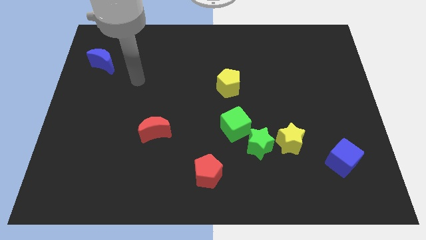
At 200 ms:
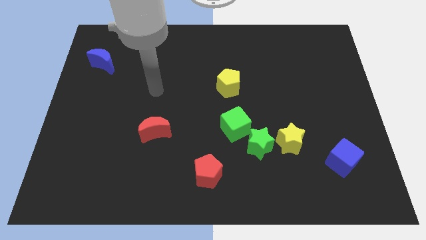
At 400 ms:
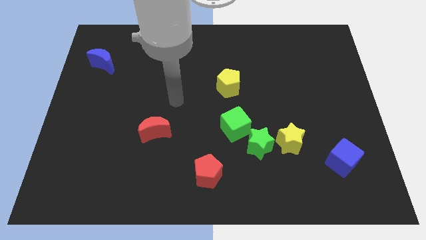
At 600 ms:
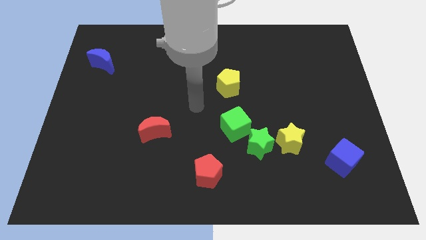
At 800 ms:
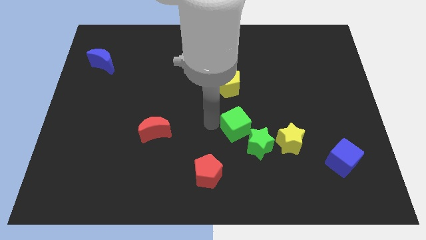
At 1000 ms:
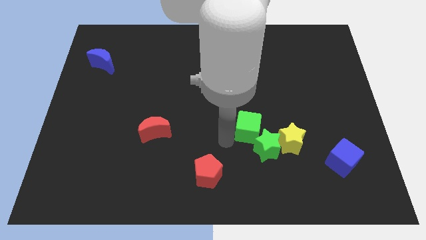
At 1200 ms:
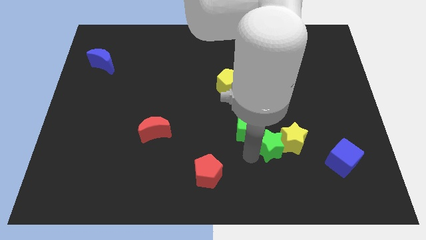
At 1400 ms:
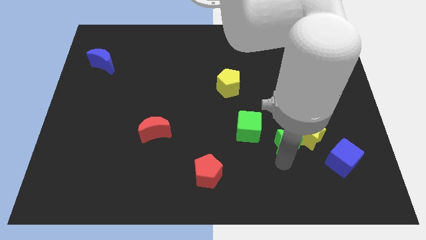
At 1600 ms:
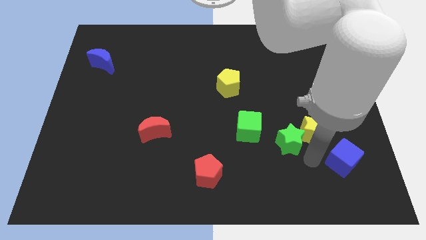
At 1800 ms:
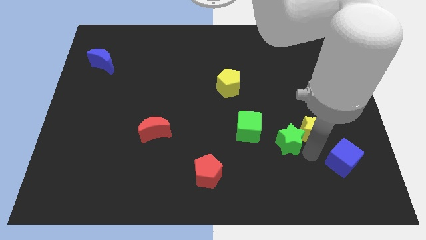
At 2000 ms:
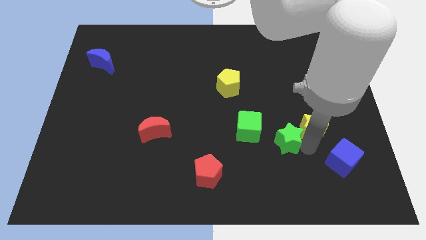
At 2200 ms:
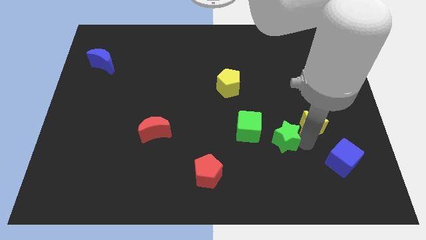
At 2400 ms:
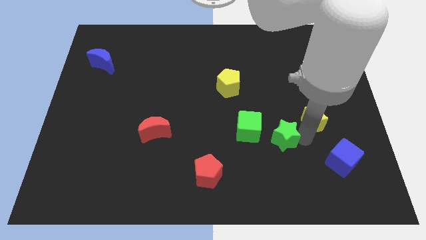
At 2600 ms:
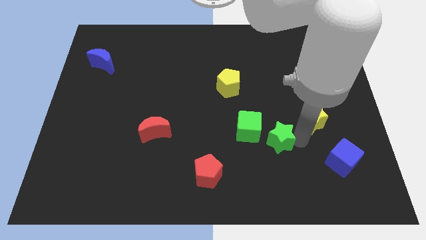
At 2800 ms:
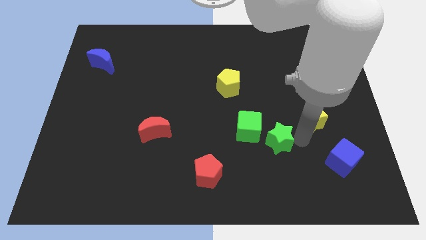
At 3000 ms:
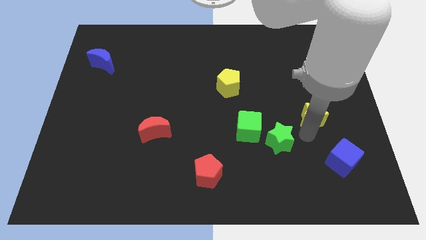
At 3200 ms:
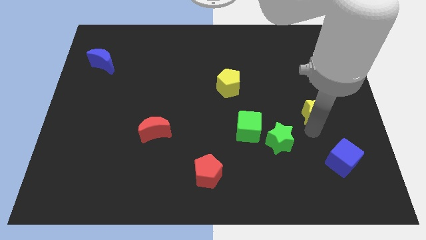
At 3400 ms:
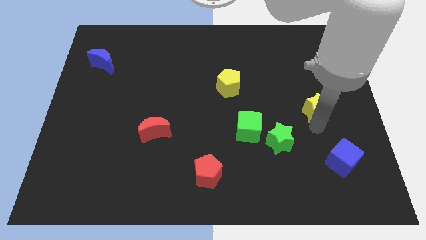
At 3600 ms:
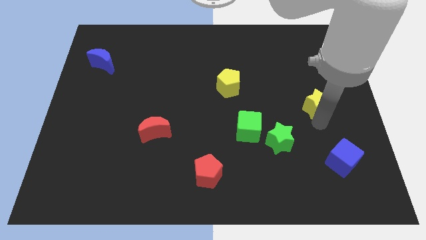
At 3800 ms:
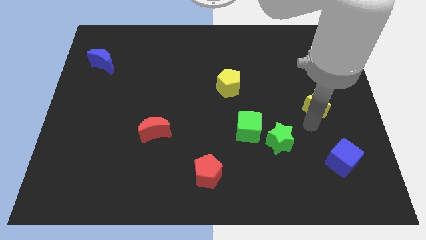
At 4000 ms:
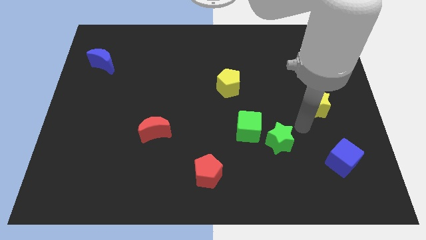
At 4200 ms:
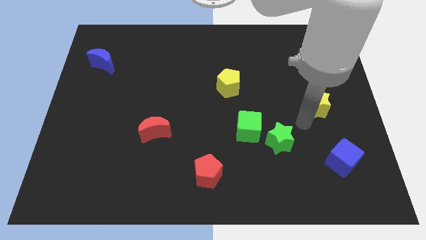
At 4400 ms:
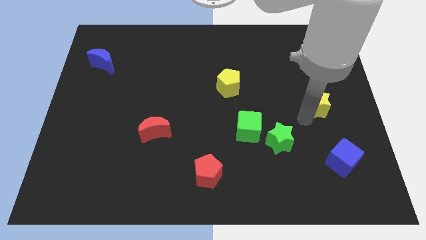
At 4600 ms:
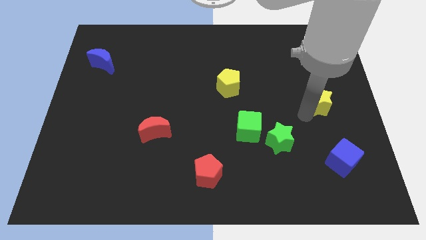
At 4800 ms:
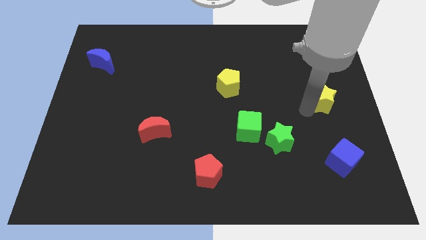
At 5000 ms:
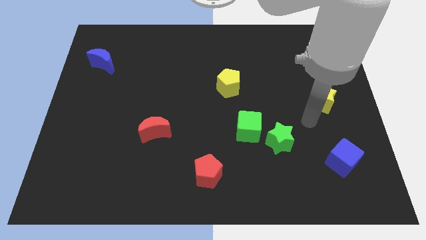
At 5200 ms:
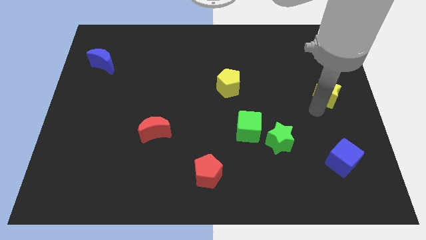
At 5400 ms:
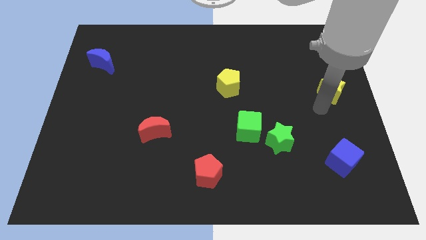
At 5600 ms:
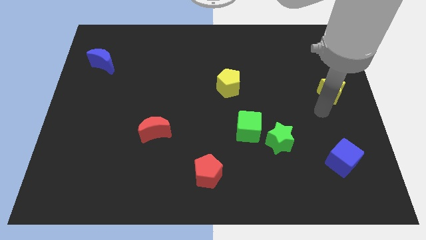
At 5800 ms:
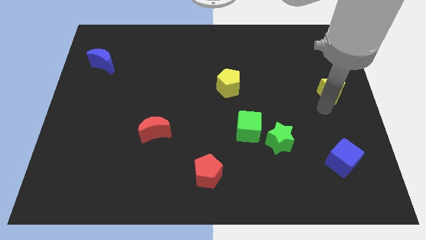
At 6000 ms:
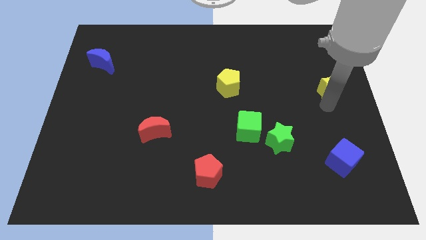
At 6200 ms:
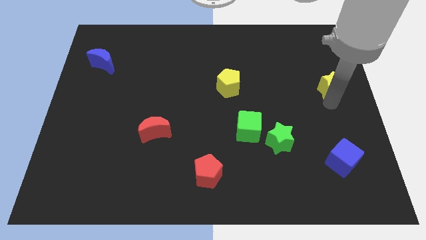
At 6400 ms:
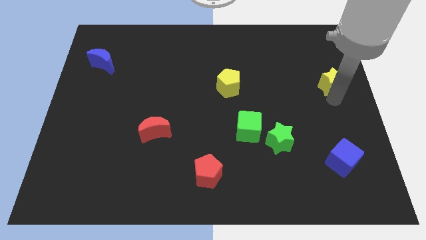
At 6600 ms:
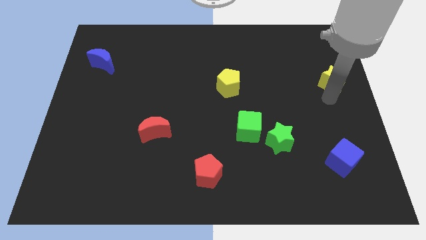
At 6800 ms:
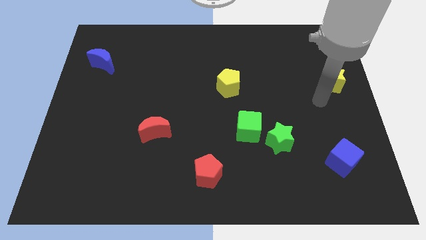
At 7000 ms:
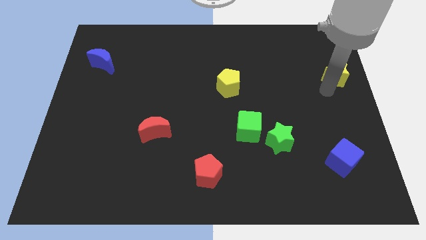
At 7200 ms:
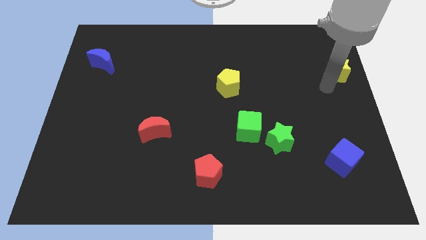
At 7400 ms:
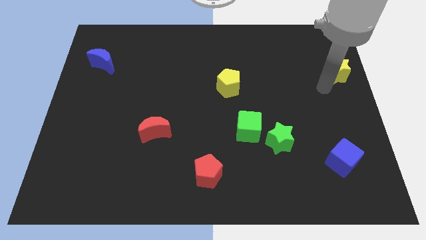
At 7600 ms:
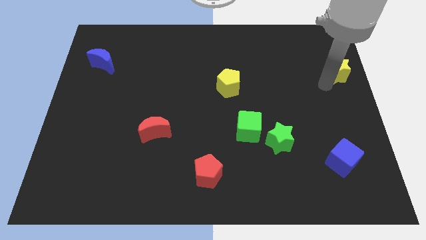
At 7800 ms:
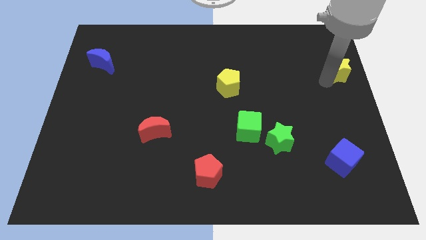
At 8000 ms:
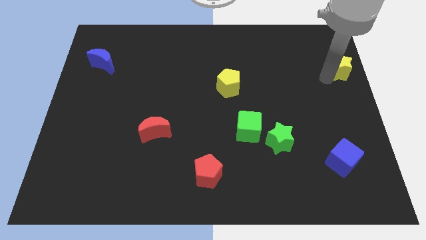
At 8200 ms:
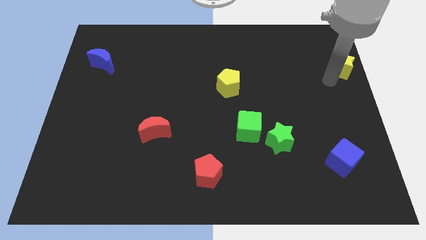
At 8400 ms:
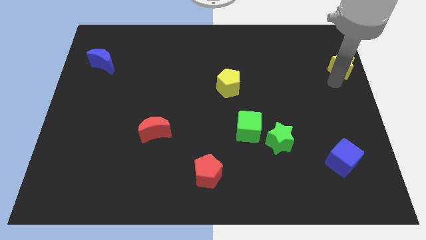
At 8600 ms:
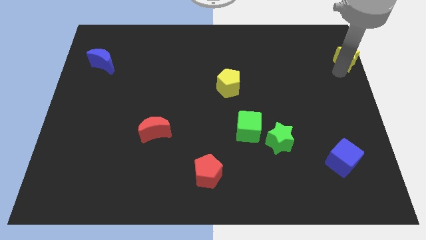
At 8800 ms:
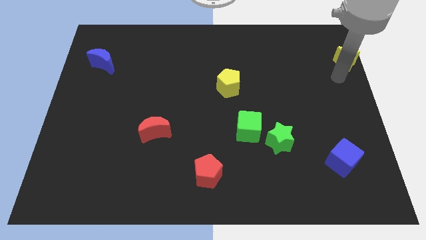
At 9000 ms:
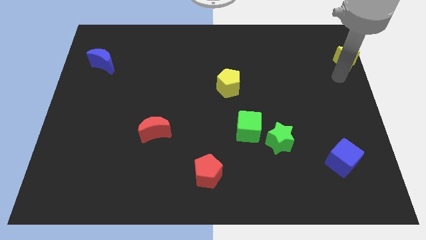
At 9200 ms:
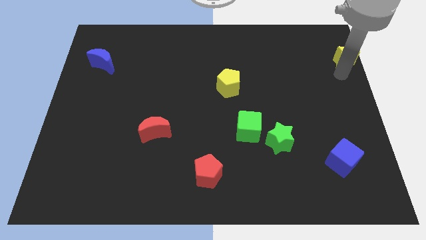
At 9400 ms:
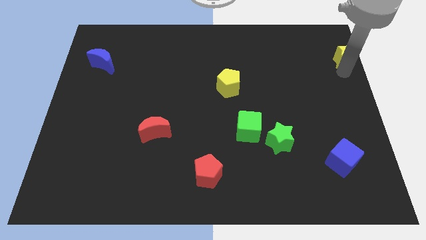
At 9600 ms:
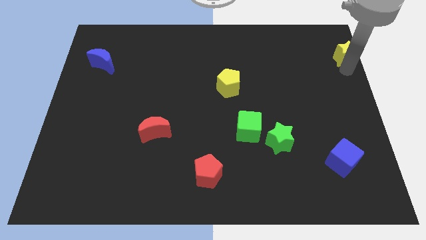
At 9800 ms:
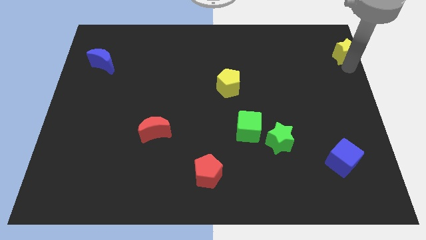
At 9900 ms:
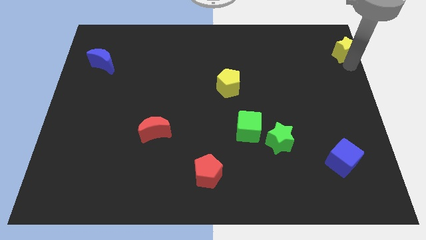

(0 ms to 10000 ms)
put the yellow star to the upper right corner

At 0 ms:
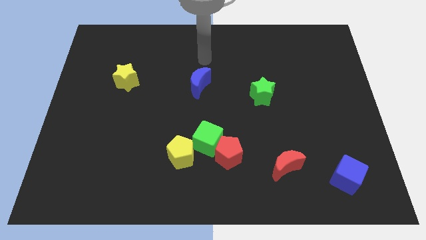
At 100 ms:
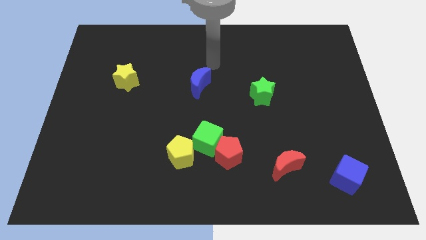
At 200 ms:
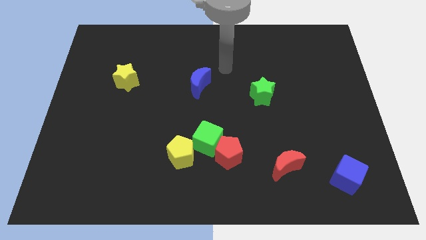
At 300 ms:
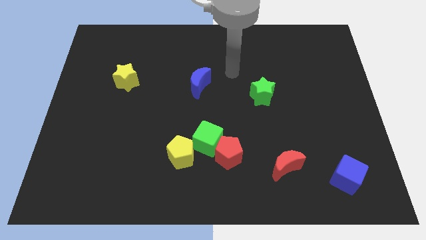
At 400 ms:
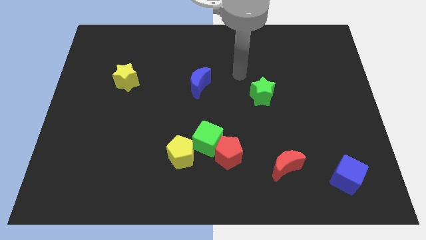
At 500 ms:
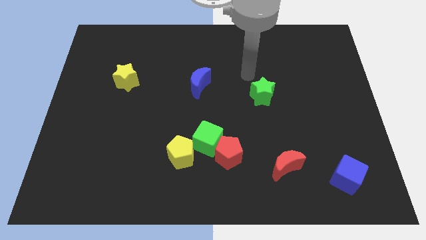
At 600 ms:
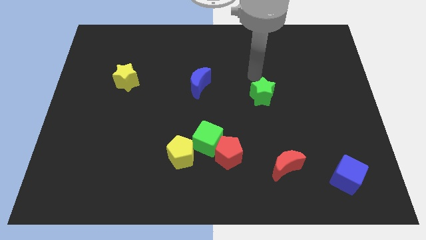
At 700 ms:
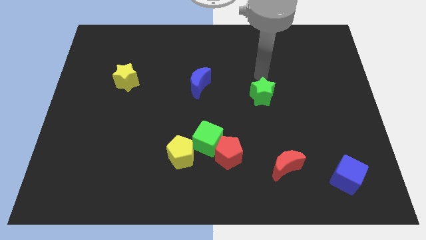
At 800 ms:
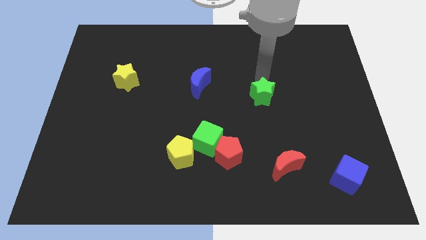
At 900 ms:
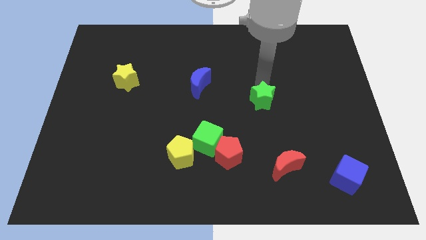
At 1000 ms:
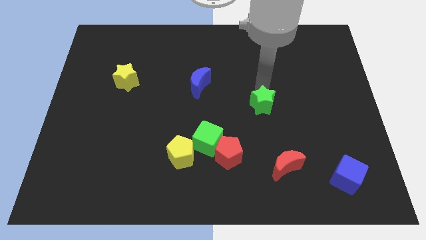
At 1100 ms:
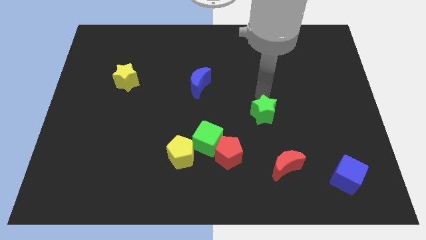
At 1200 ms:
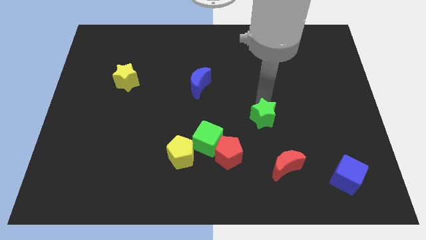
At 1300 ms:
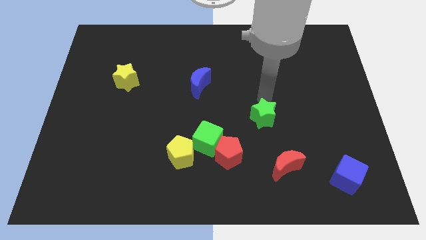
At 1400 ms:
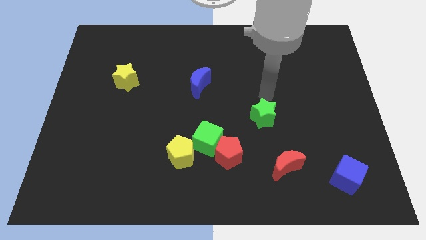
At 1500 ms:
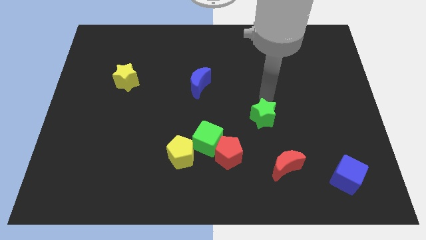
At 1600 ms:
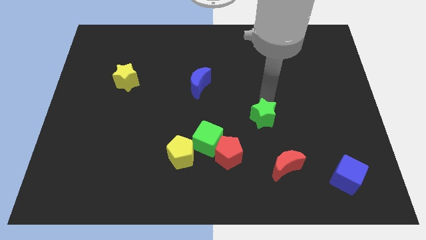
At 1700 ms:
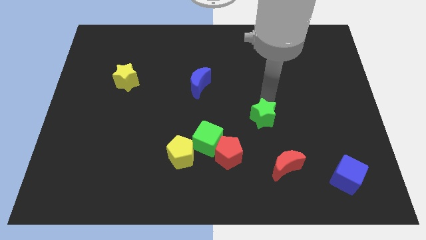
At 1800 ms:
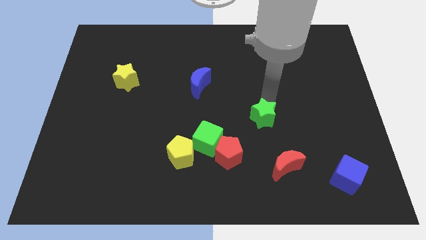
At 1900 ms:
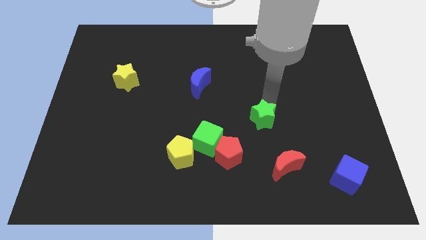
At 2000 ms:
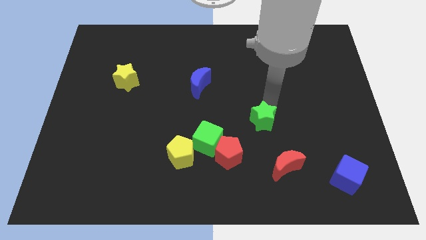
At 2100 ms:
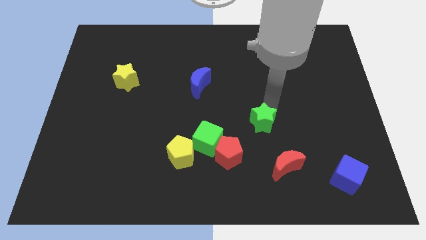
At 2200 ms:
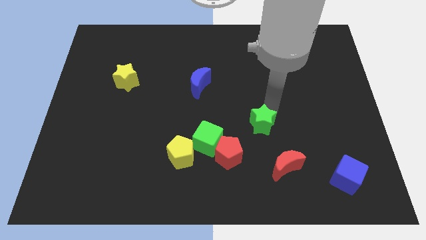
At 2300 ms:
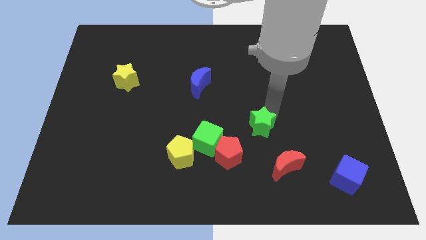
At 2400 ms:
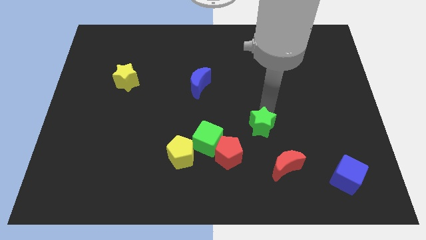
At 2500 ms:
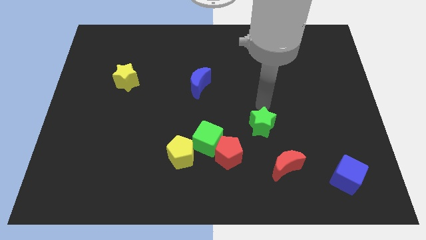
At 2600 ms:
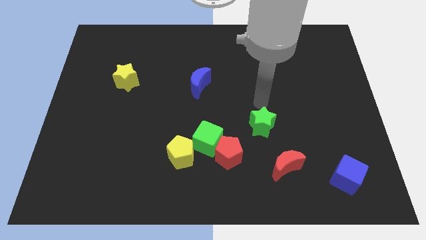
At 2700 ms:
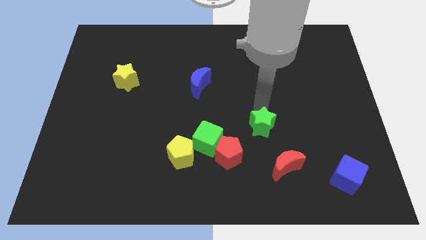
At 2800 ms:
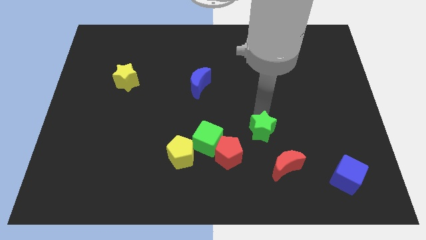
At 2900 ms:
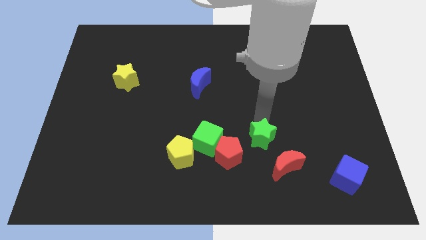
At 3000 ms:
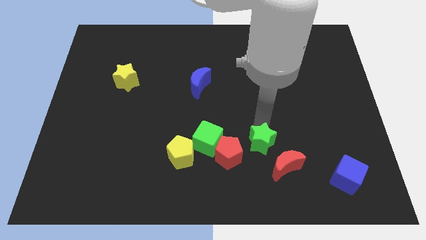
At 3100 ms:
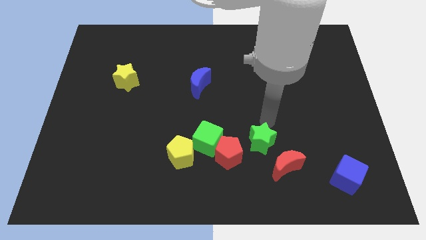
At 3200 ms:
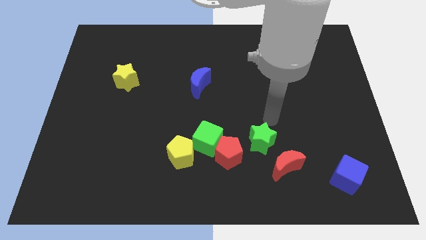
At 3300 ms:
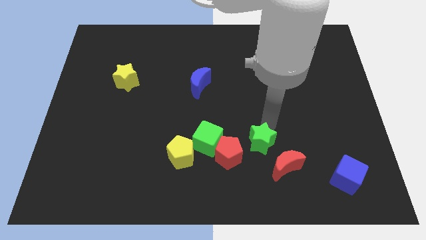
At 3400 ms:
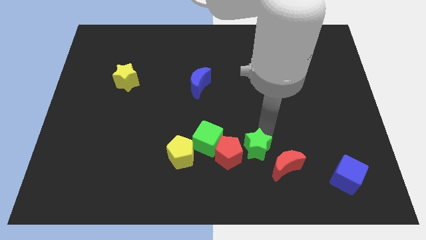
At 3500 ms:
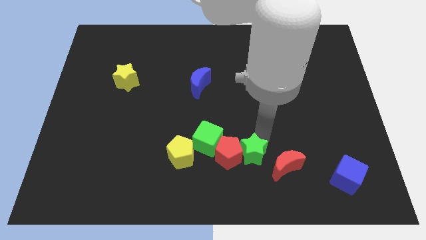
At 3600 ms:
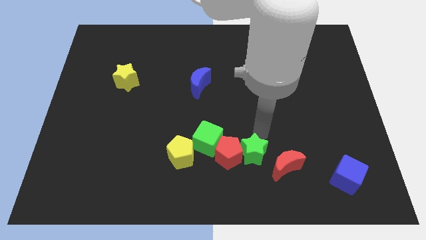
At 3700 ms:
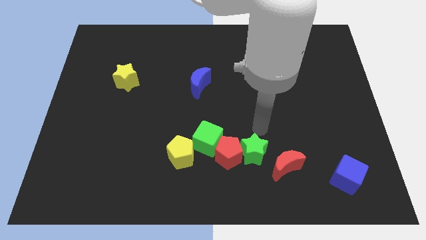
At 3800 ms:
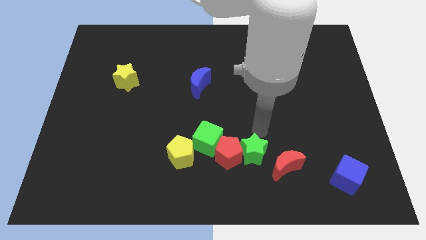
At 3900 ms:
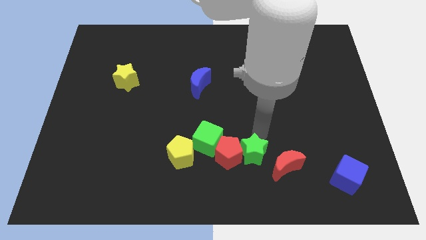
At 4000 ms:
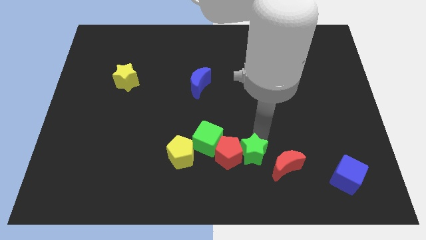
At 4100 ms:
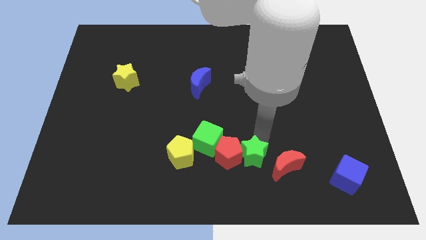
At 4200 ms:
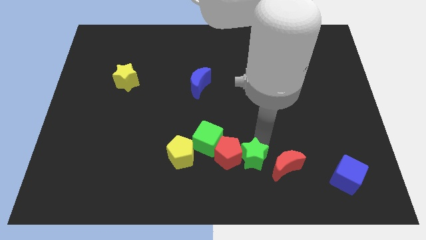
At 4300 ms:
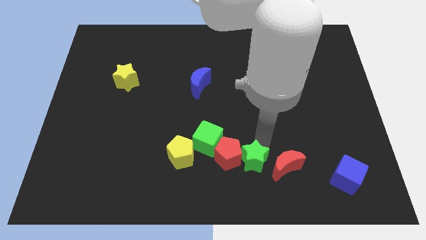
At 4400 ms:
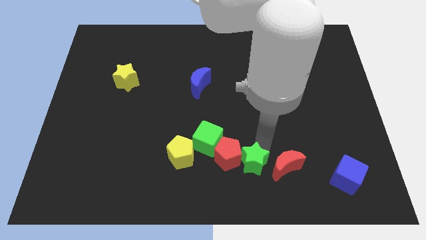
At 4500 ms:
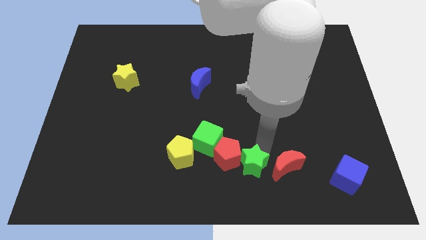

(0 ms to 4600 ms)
push the green star to the bottom side
